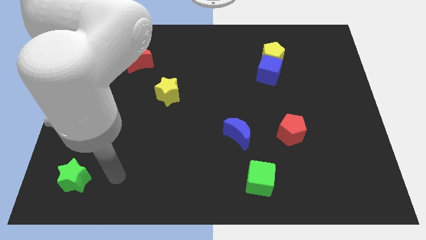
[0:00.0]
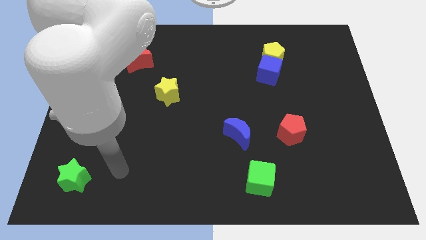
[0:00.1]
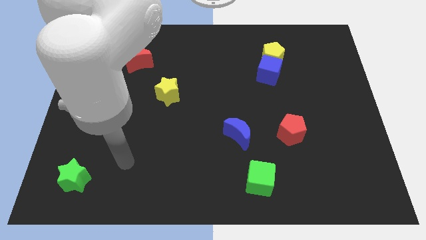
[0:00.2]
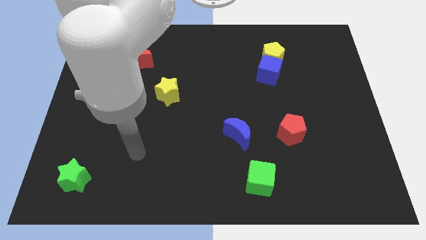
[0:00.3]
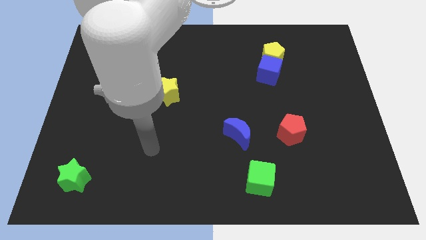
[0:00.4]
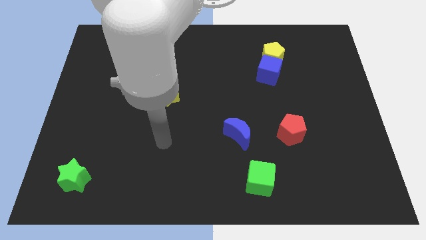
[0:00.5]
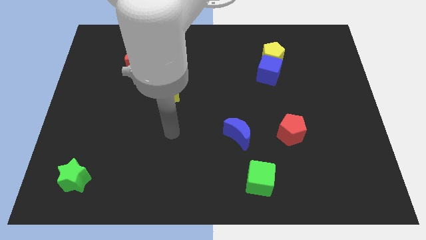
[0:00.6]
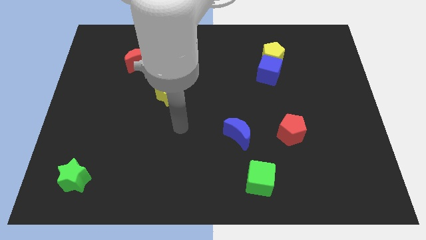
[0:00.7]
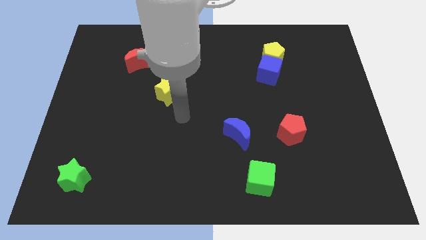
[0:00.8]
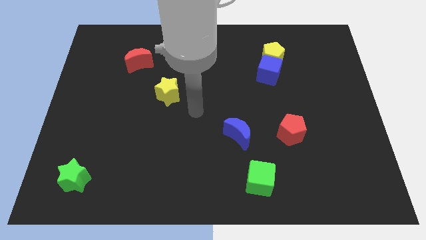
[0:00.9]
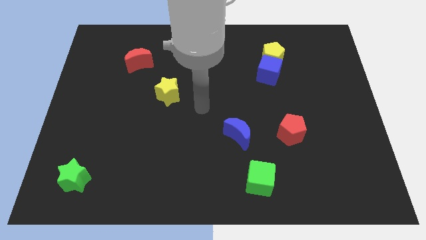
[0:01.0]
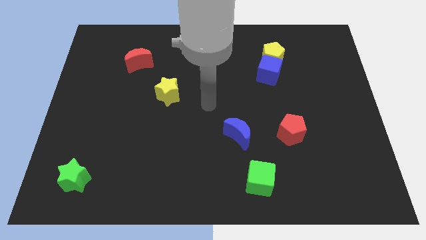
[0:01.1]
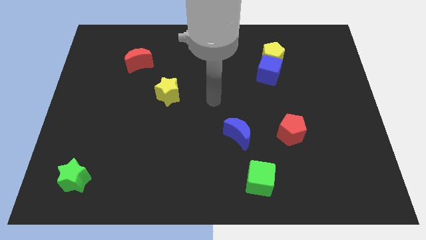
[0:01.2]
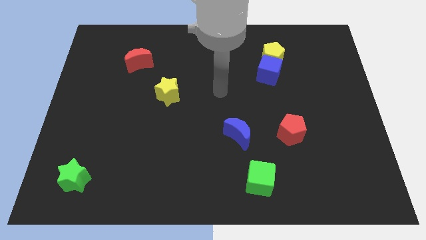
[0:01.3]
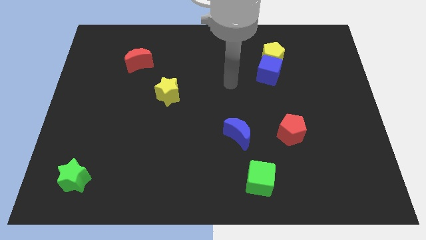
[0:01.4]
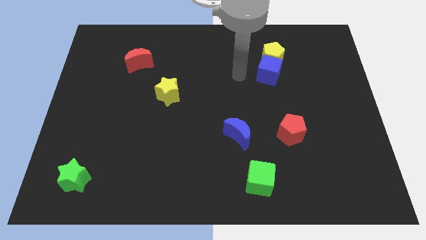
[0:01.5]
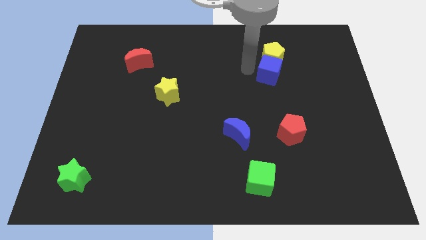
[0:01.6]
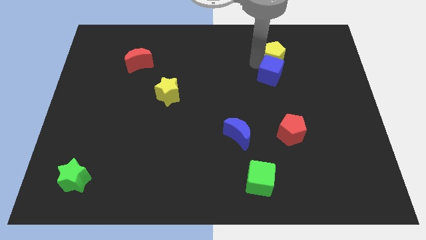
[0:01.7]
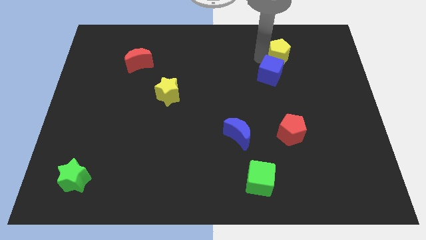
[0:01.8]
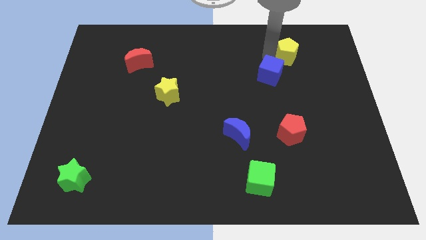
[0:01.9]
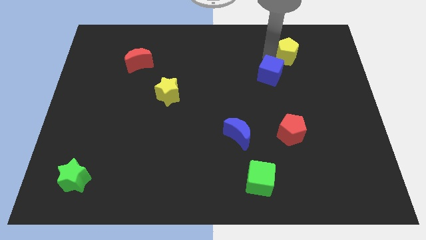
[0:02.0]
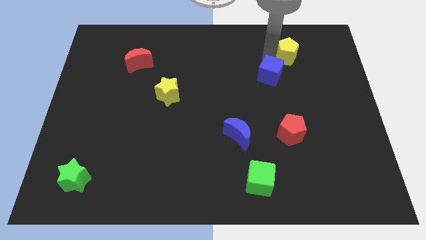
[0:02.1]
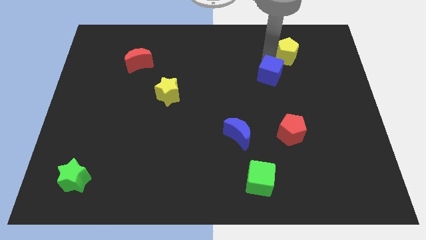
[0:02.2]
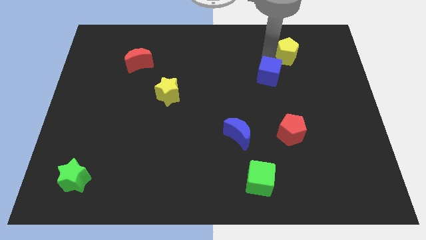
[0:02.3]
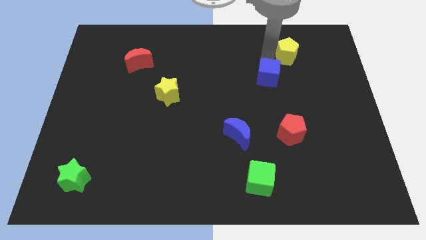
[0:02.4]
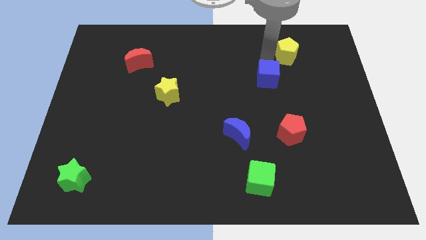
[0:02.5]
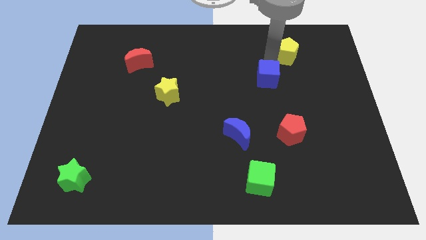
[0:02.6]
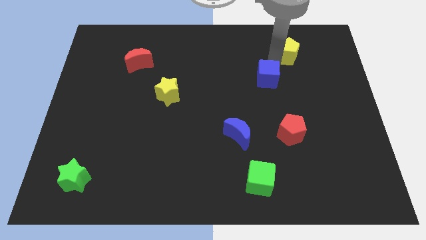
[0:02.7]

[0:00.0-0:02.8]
separate the blue cube from the yellow pentagon

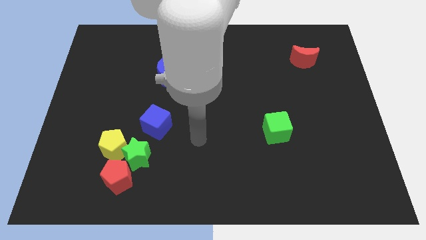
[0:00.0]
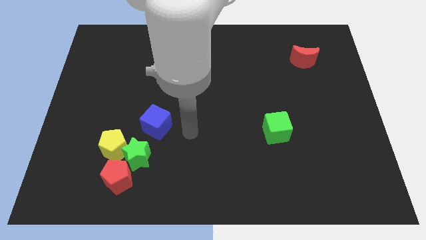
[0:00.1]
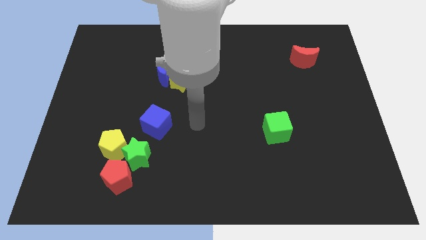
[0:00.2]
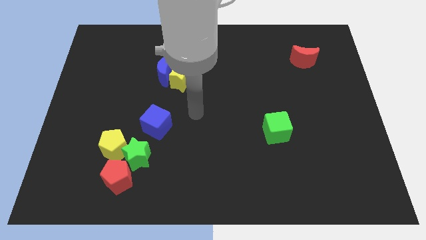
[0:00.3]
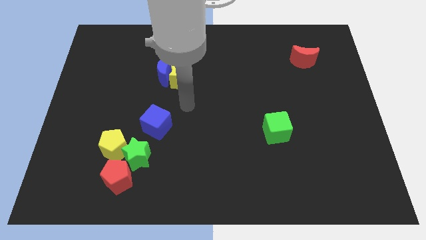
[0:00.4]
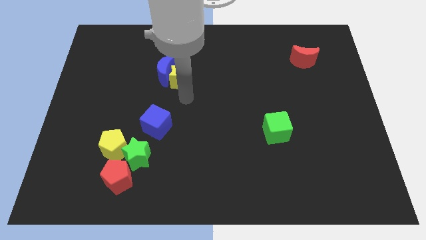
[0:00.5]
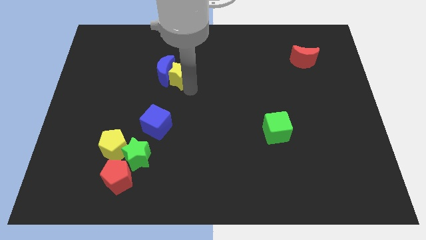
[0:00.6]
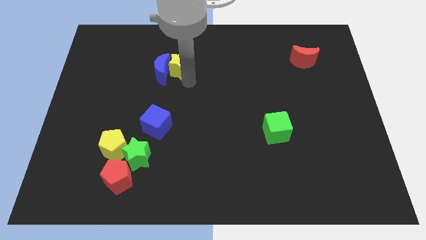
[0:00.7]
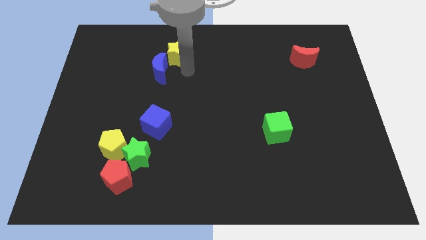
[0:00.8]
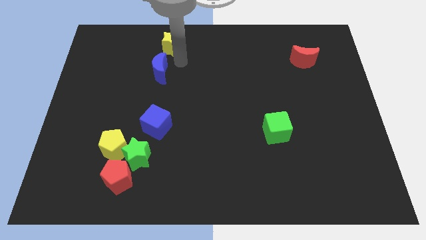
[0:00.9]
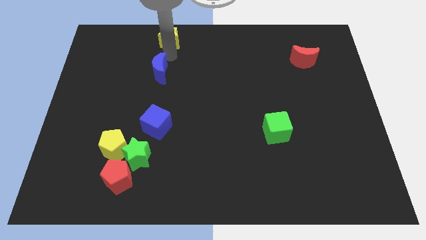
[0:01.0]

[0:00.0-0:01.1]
move the blue moon away from the yellow star

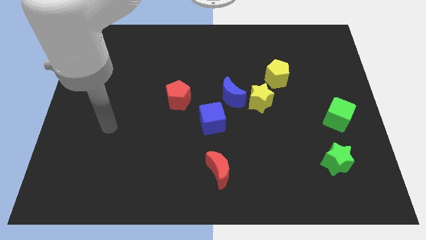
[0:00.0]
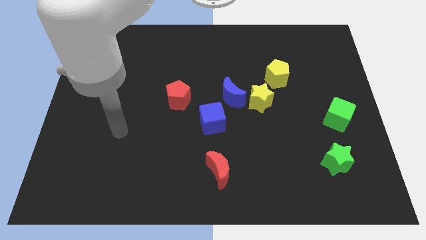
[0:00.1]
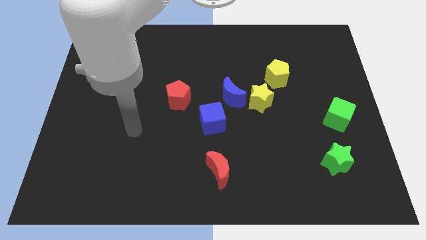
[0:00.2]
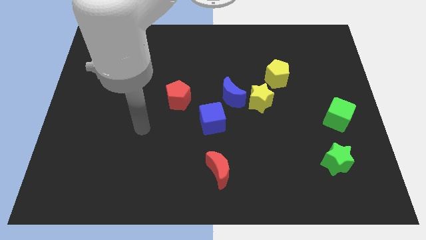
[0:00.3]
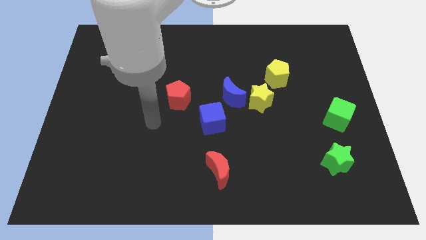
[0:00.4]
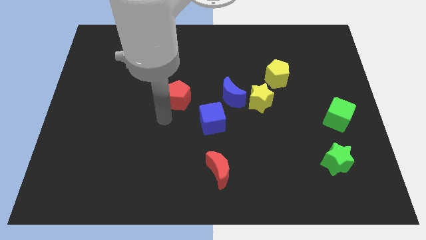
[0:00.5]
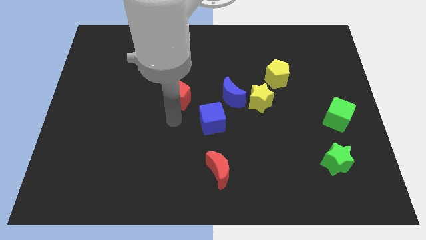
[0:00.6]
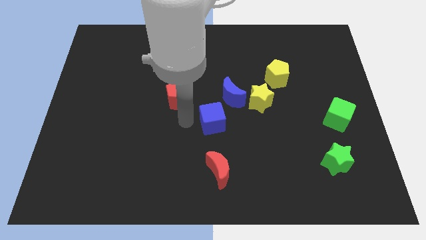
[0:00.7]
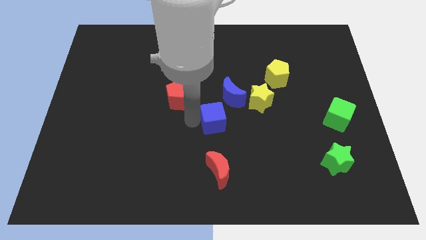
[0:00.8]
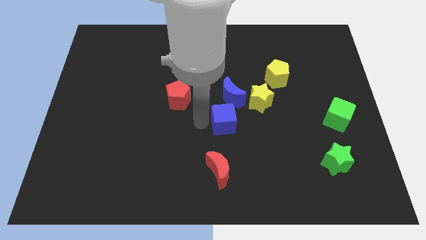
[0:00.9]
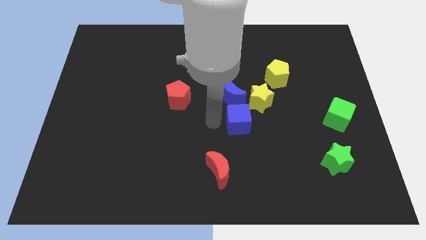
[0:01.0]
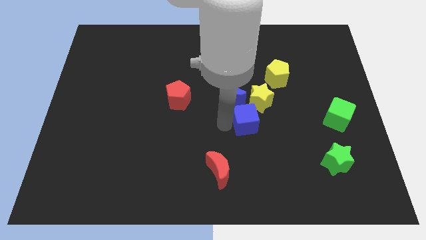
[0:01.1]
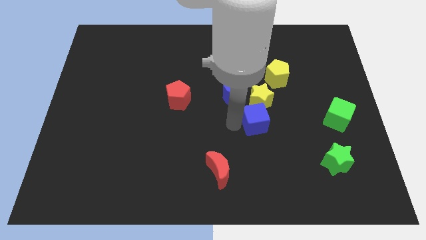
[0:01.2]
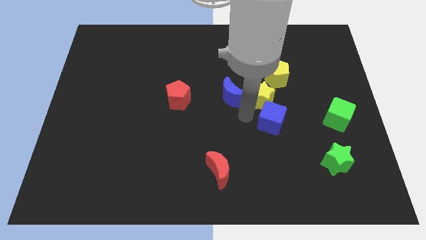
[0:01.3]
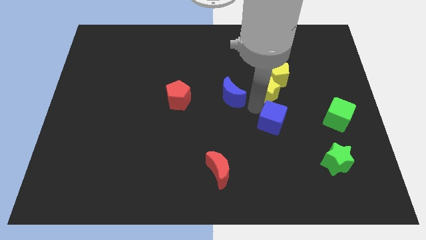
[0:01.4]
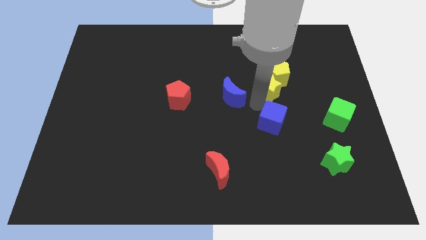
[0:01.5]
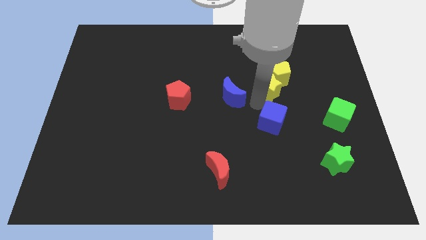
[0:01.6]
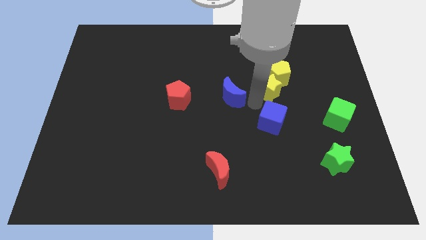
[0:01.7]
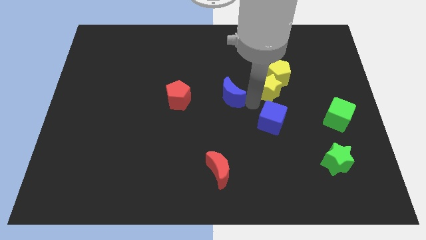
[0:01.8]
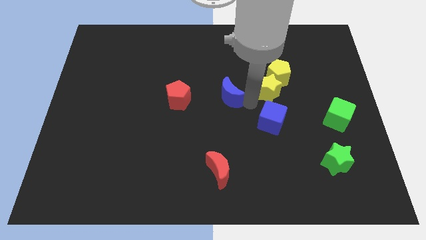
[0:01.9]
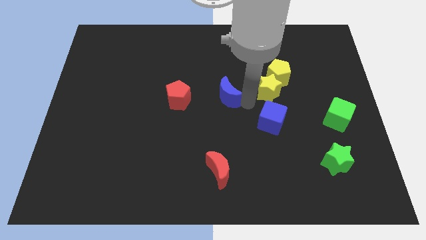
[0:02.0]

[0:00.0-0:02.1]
pull the blue moon apart from the yellow star and blue cube

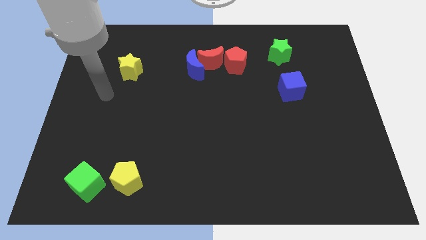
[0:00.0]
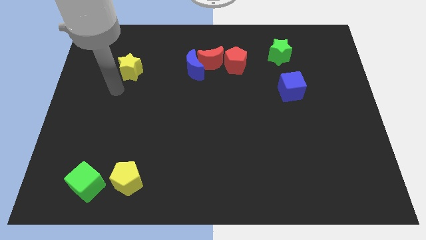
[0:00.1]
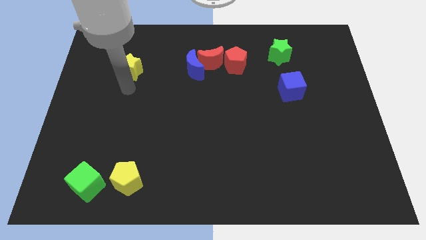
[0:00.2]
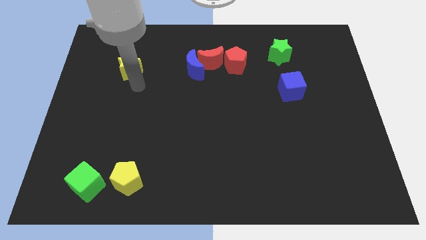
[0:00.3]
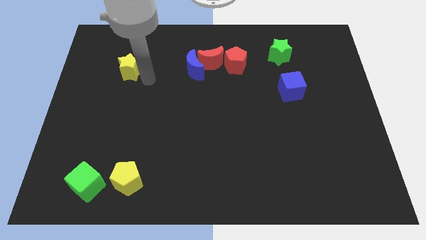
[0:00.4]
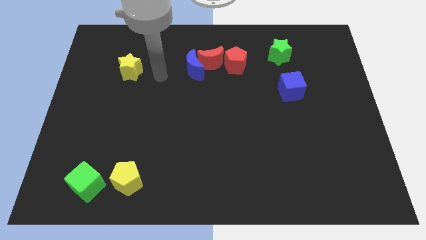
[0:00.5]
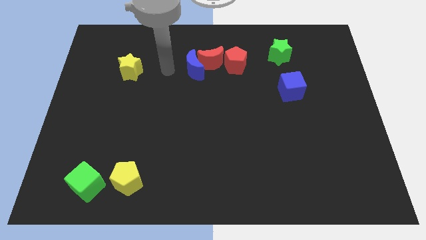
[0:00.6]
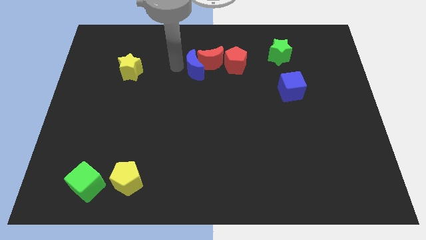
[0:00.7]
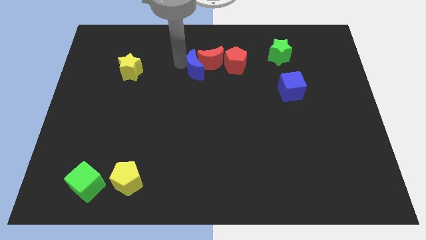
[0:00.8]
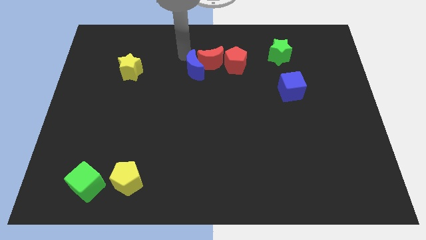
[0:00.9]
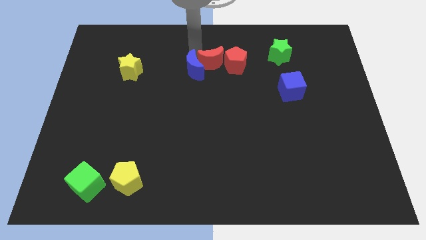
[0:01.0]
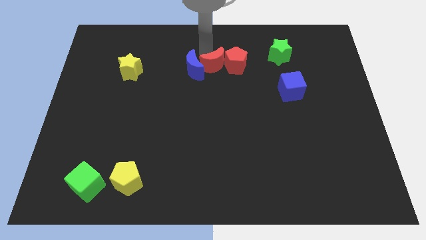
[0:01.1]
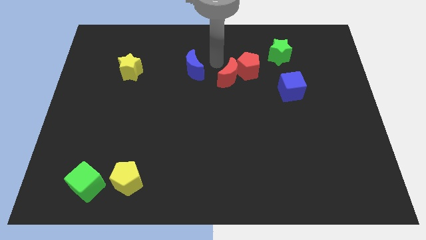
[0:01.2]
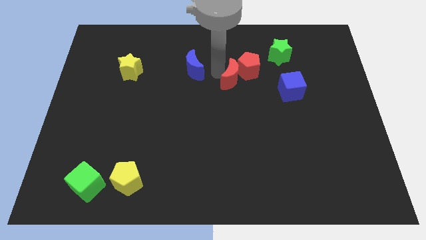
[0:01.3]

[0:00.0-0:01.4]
pull the blue moon apart from the red moon

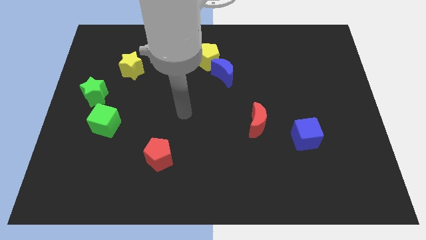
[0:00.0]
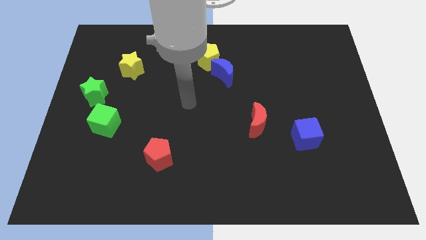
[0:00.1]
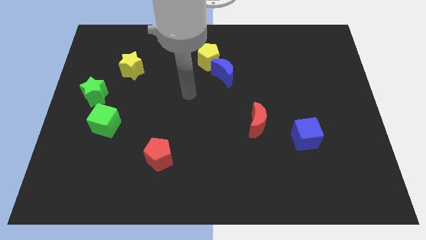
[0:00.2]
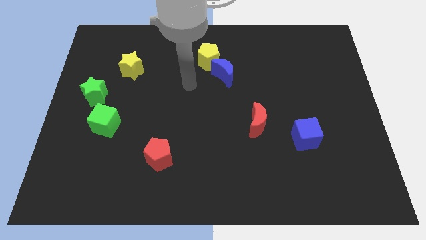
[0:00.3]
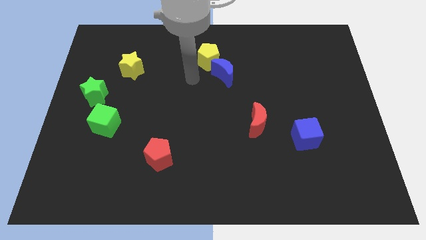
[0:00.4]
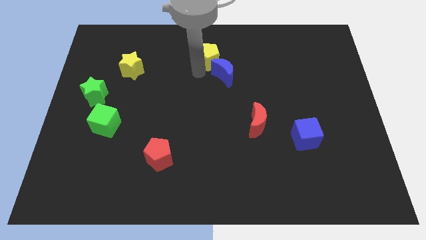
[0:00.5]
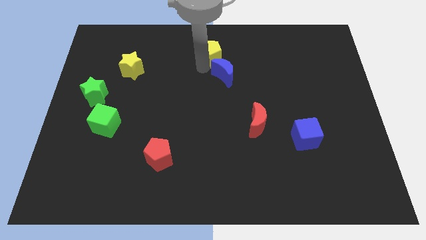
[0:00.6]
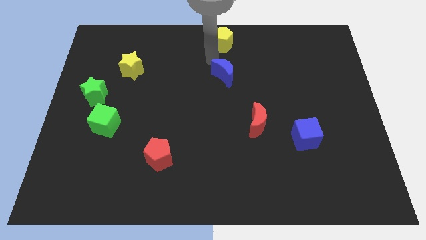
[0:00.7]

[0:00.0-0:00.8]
separate the blue moon from the yellow pentagon

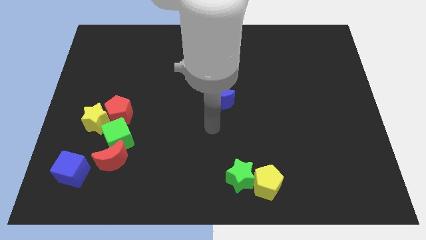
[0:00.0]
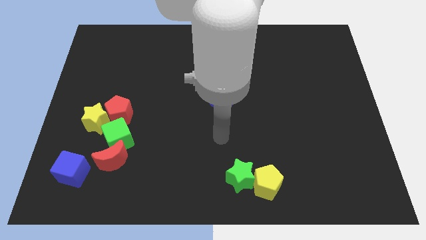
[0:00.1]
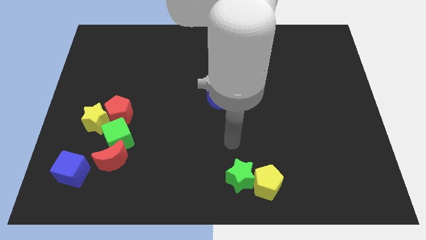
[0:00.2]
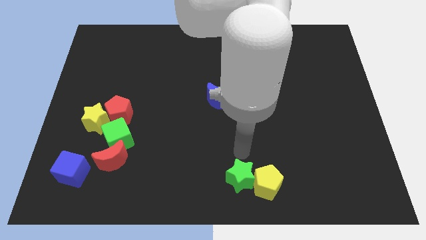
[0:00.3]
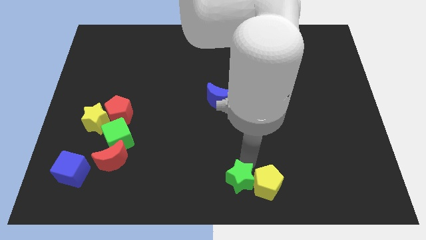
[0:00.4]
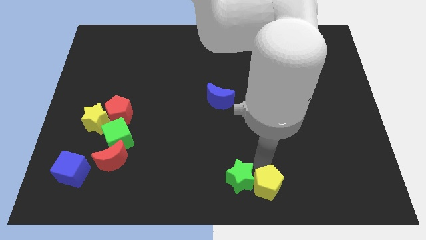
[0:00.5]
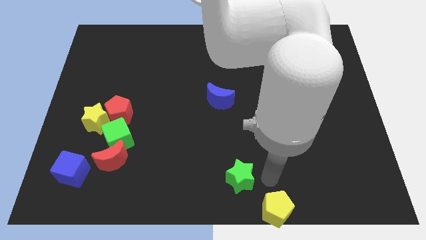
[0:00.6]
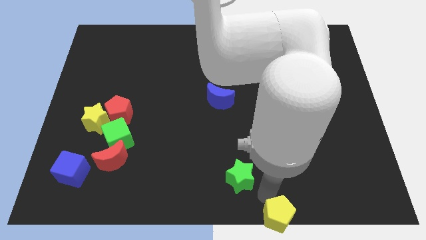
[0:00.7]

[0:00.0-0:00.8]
move the green star away from the yellow pentagon

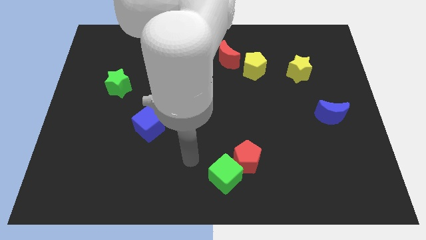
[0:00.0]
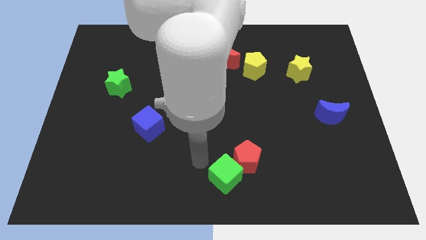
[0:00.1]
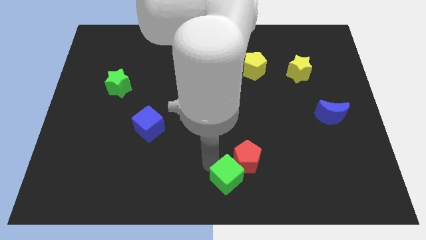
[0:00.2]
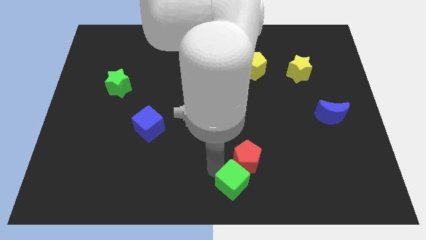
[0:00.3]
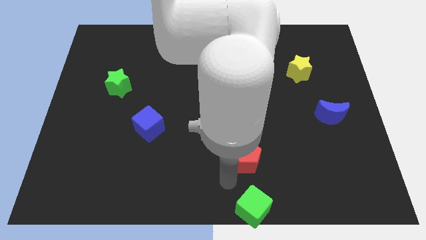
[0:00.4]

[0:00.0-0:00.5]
separate the red pentagon from the green cube
